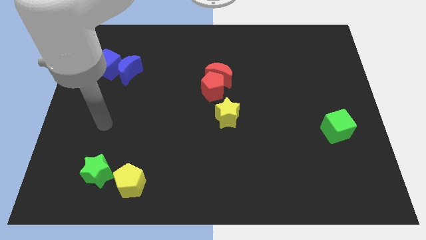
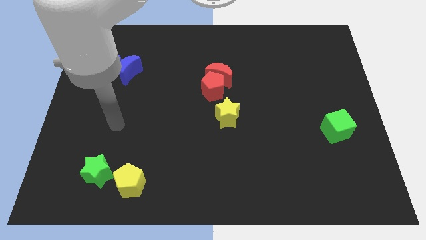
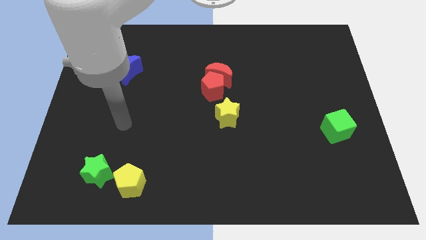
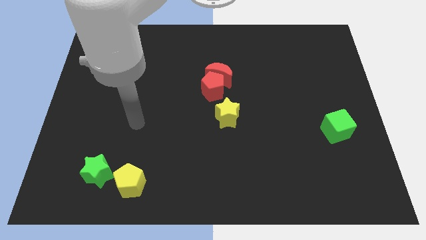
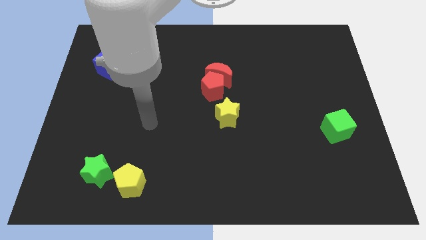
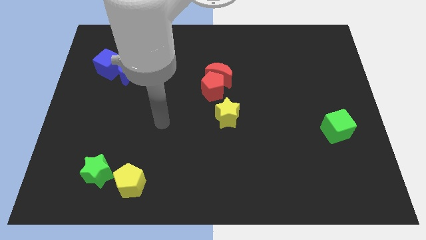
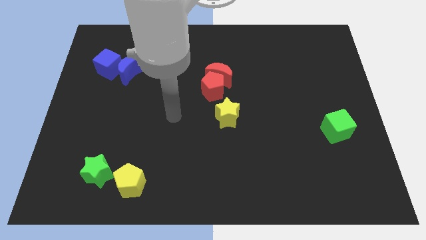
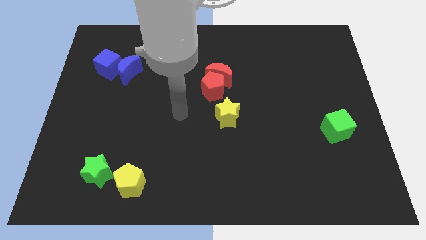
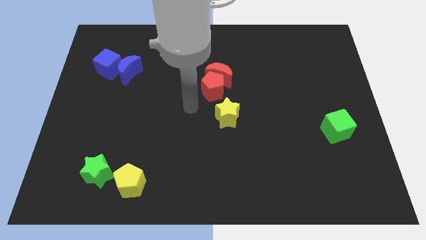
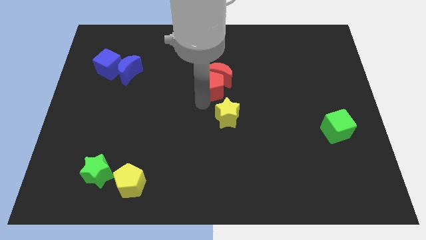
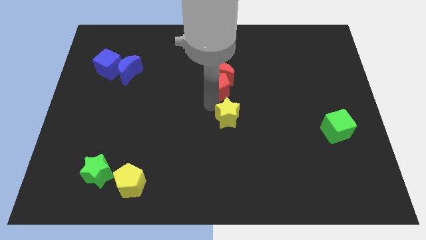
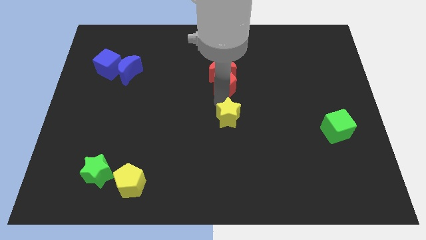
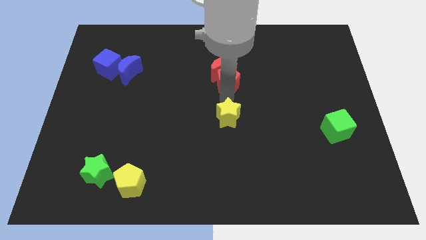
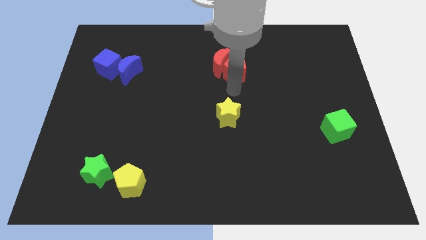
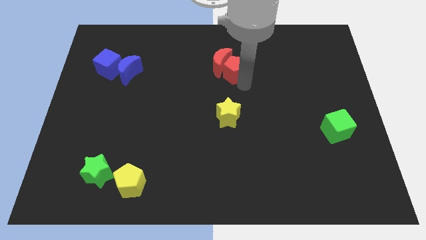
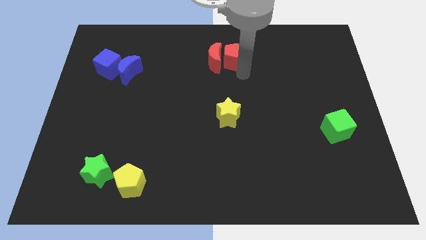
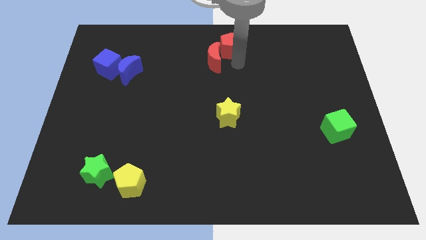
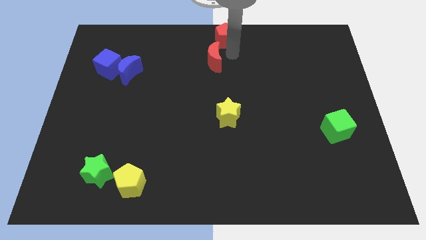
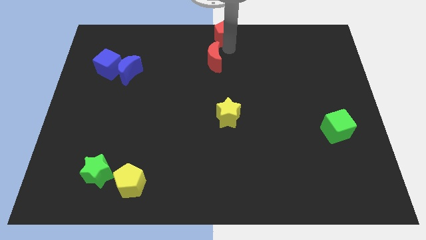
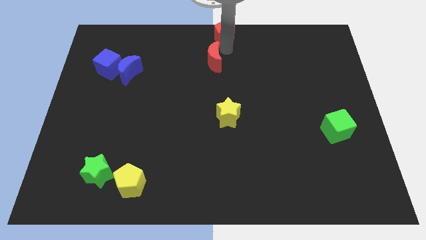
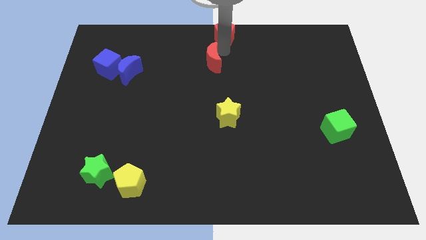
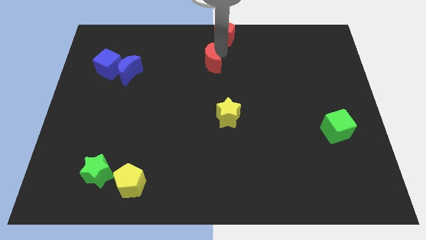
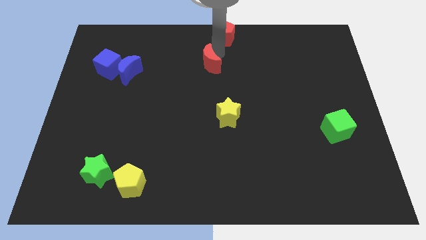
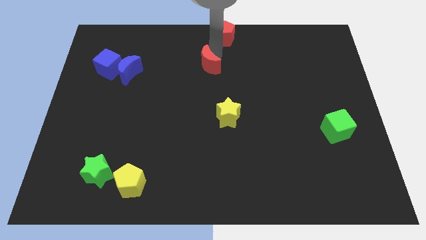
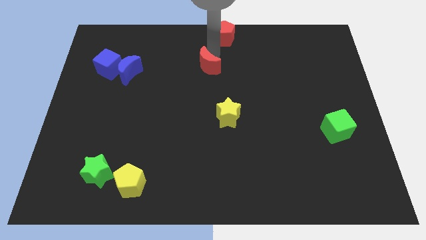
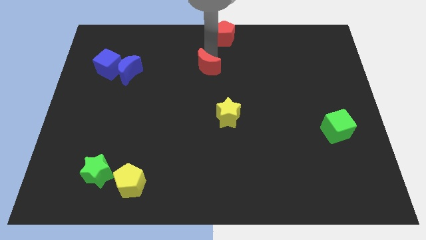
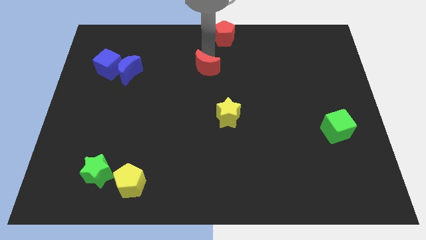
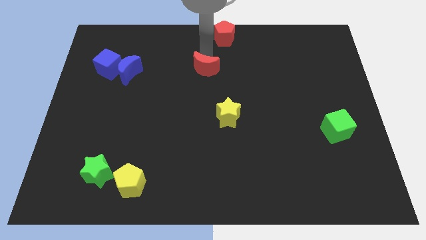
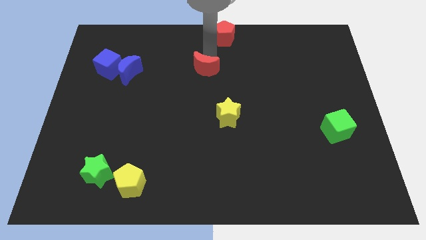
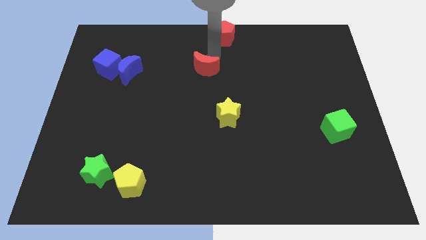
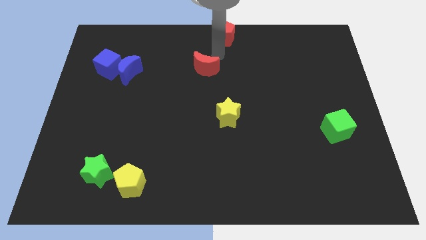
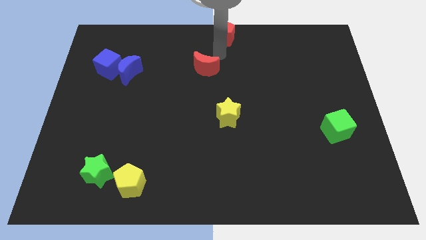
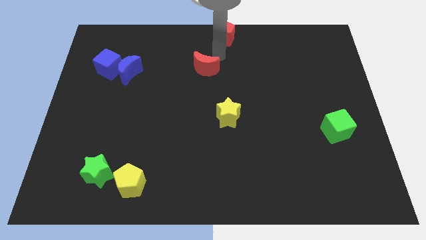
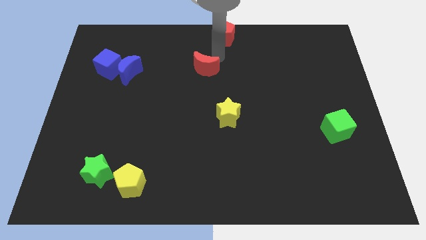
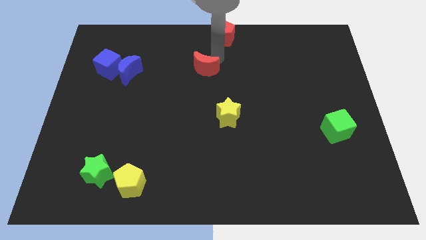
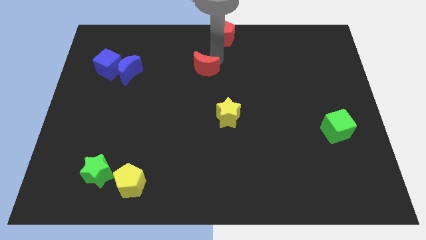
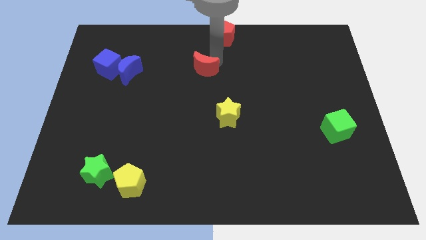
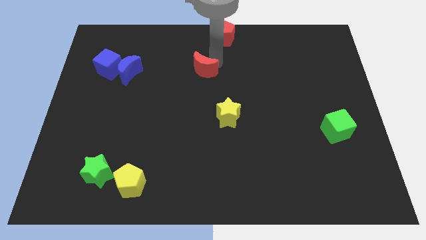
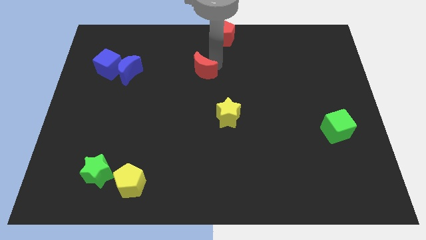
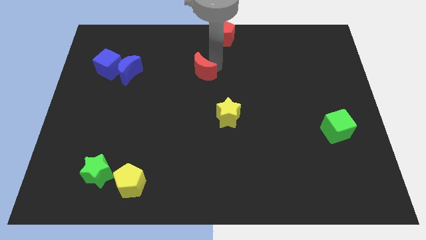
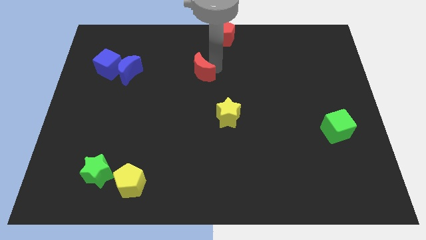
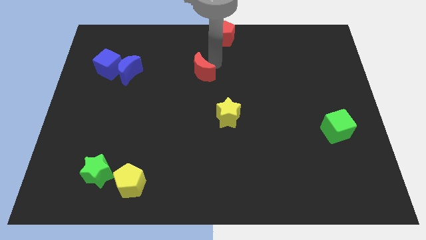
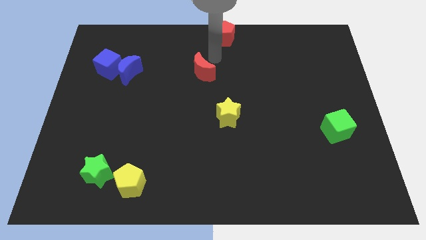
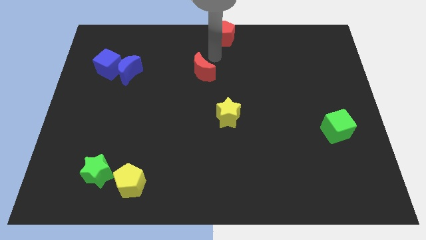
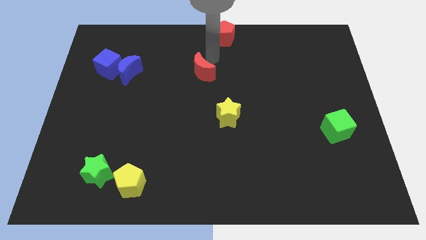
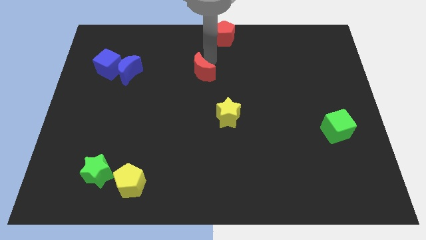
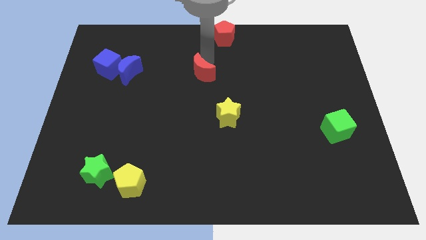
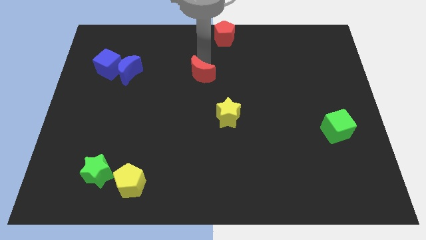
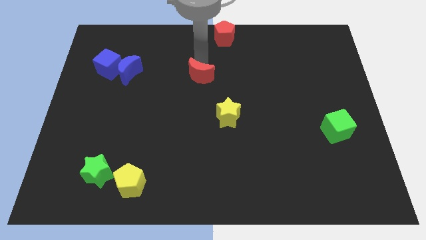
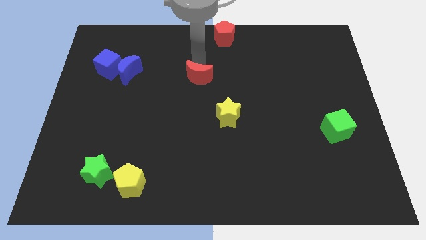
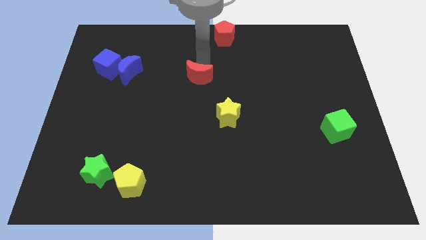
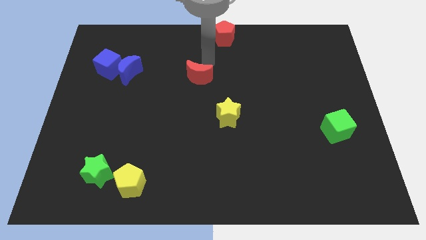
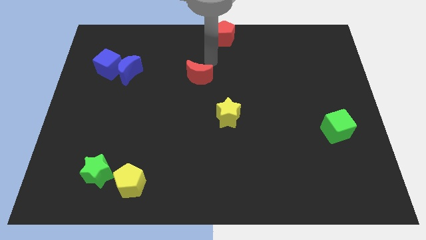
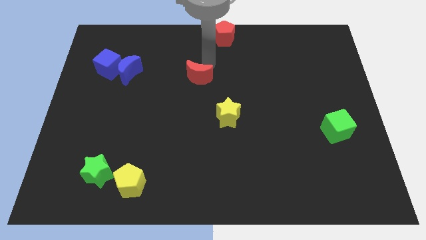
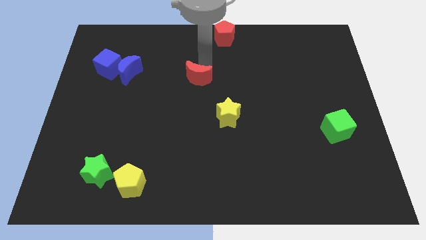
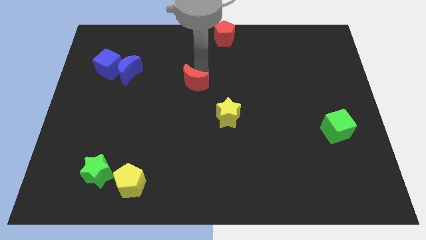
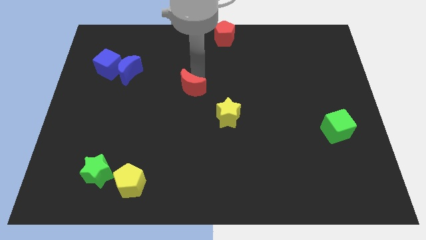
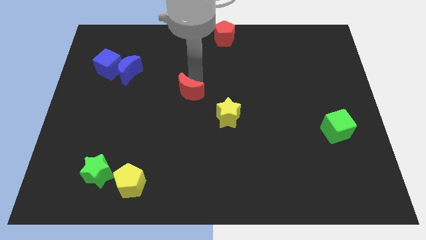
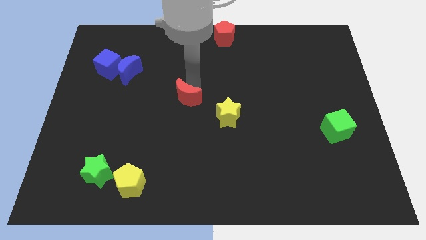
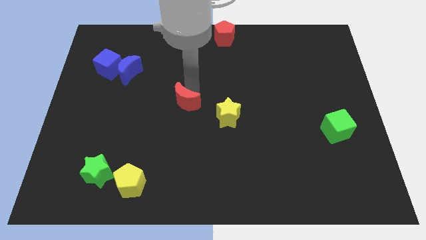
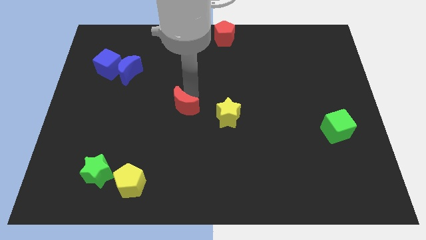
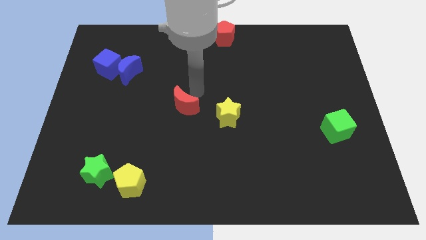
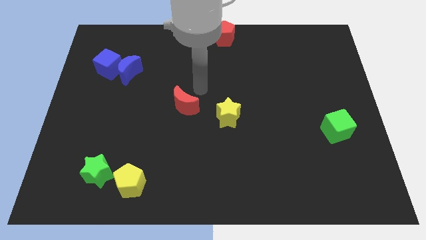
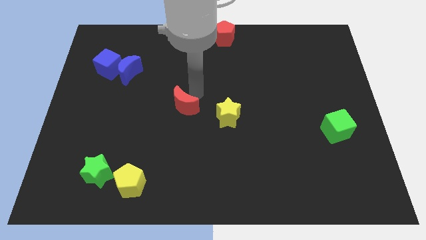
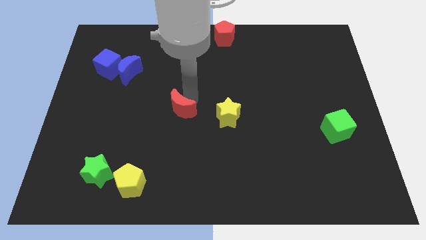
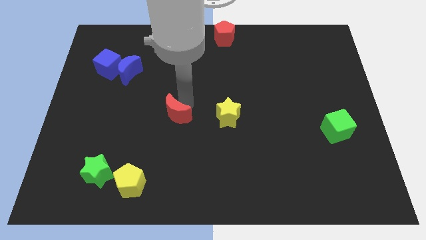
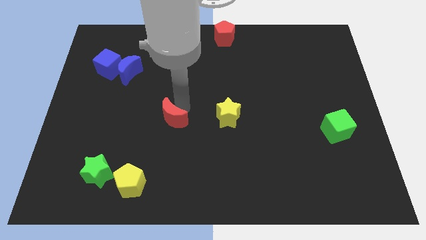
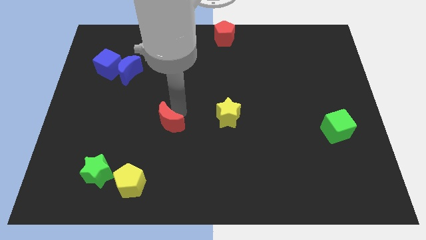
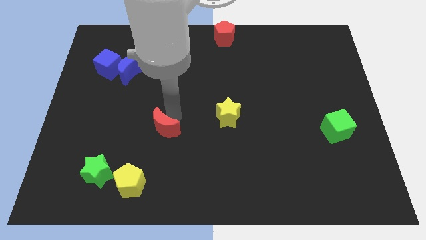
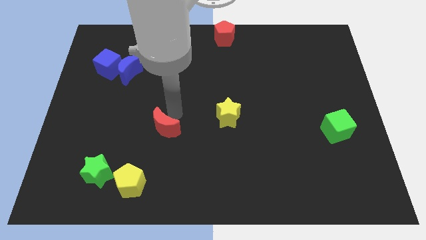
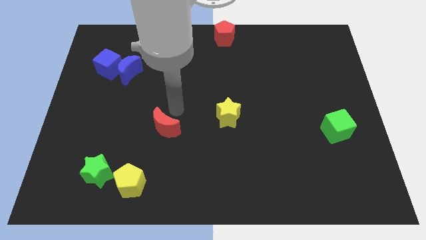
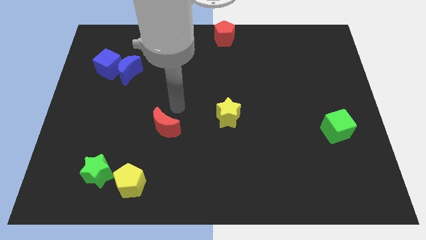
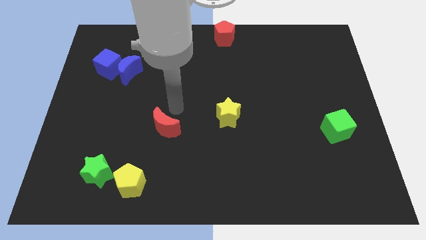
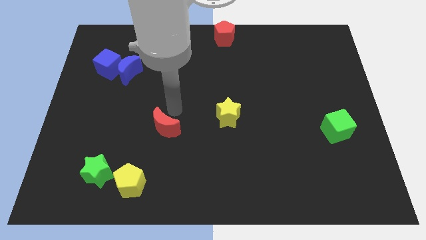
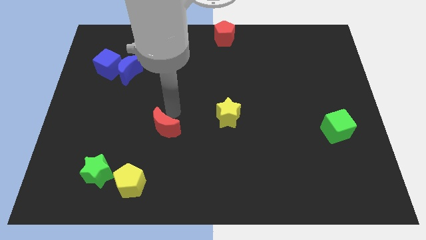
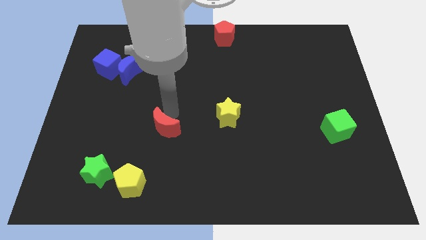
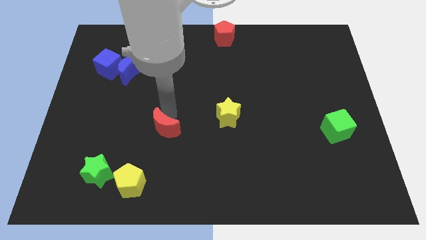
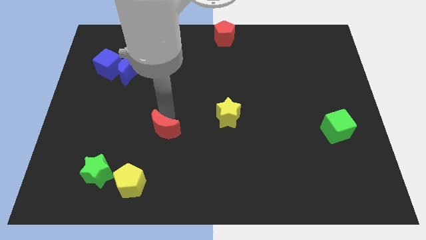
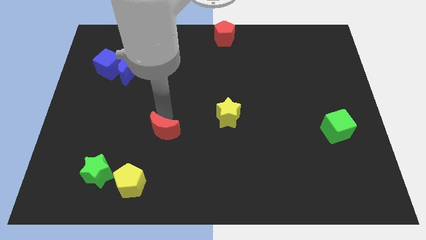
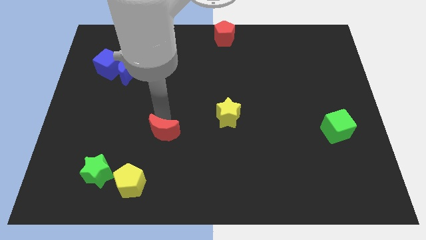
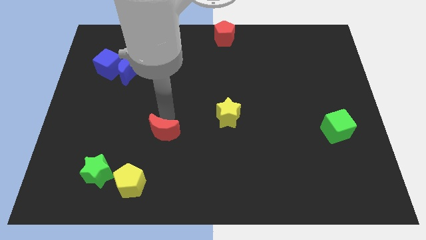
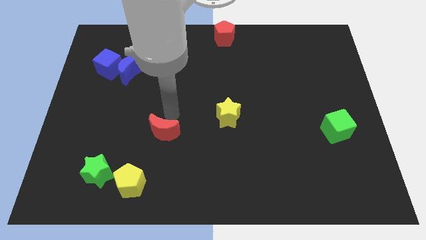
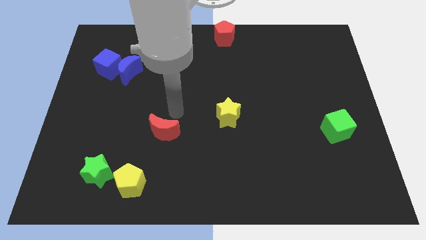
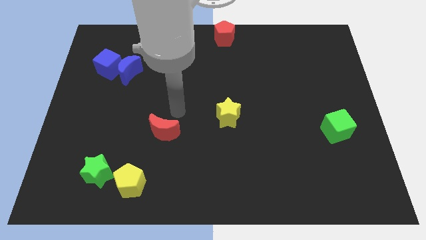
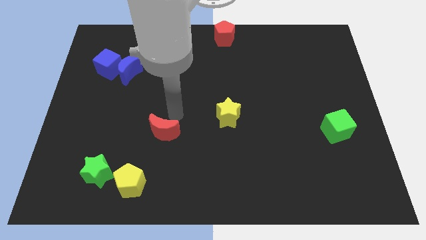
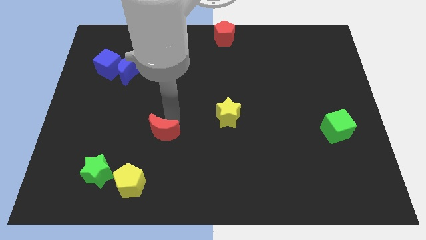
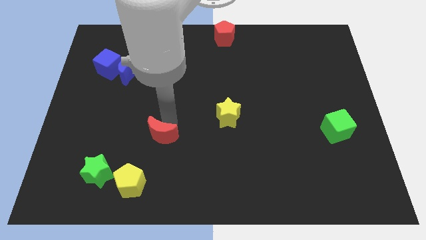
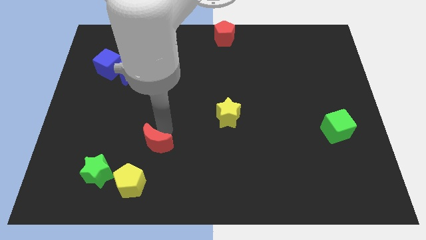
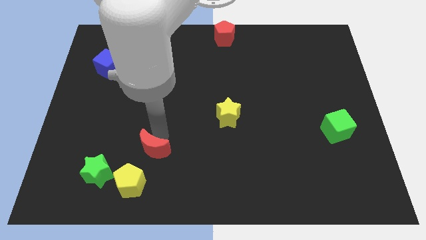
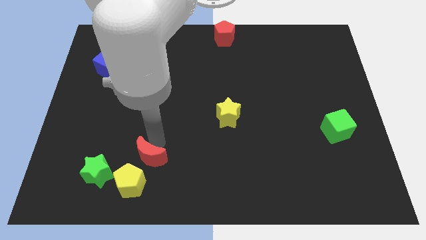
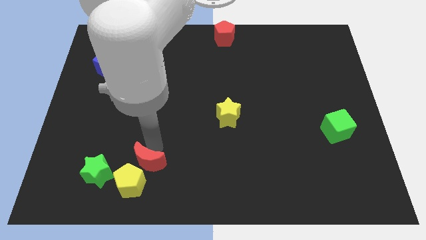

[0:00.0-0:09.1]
move the red moon to the yellow pentagon
